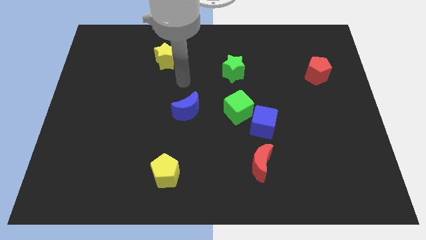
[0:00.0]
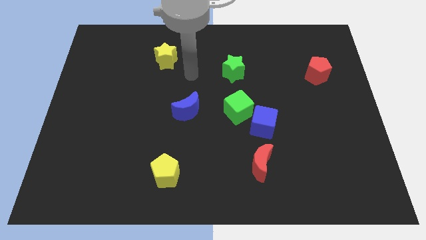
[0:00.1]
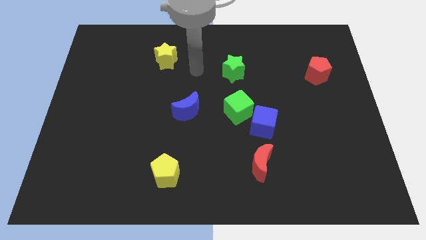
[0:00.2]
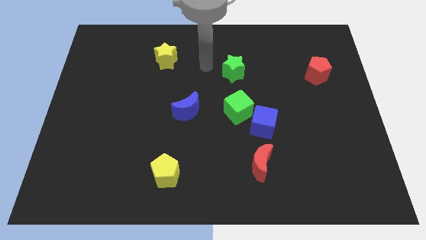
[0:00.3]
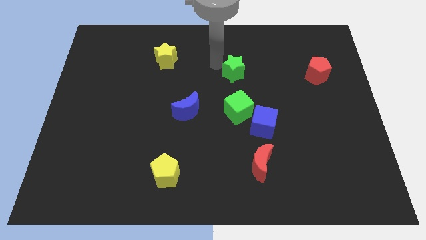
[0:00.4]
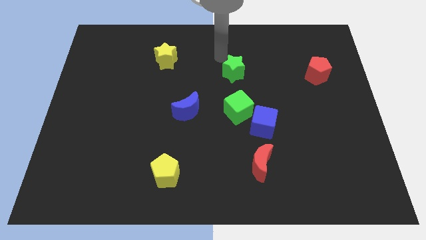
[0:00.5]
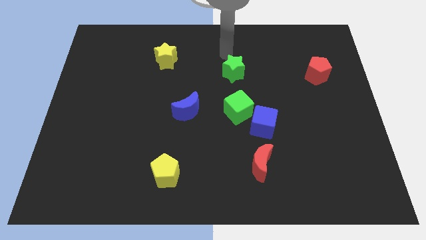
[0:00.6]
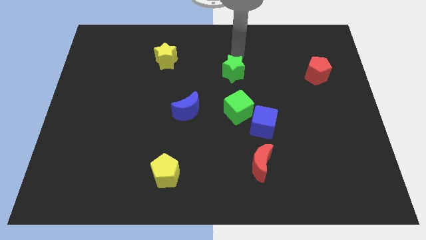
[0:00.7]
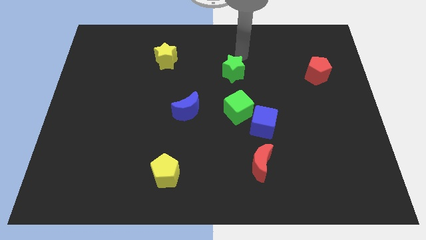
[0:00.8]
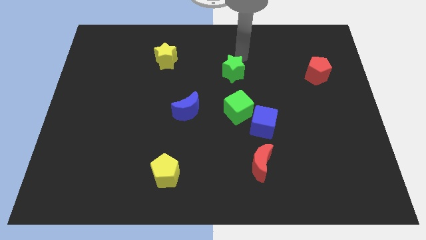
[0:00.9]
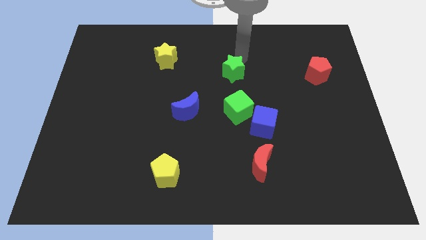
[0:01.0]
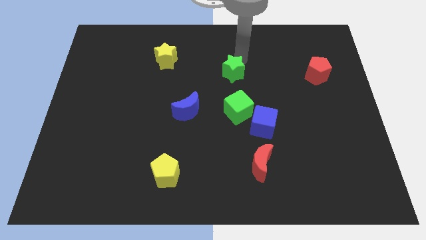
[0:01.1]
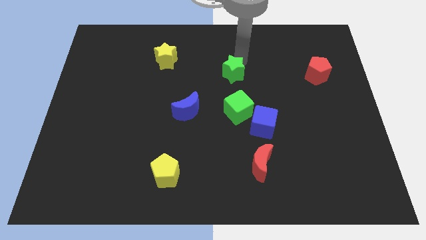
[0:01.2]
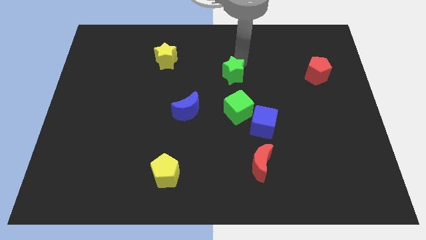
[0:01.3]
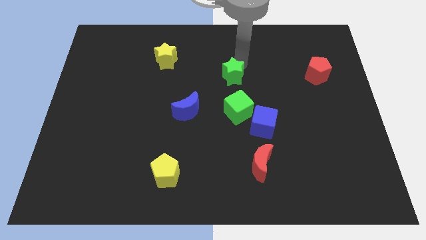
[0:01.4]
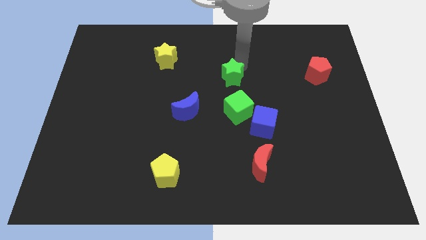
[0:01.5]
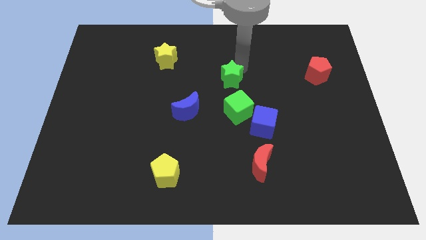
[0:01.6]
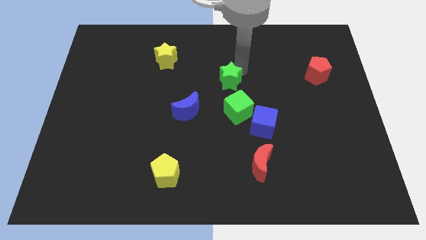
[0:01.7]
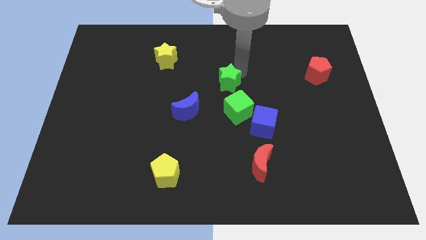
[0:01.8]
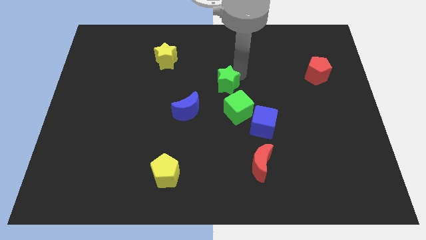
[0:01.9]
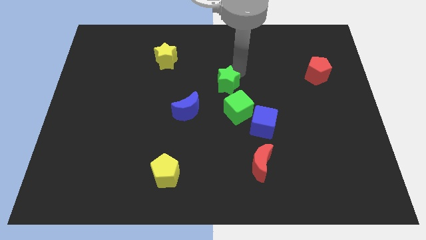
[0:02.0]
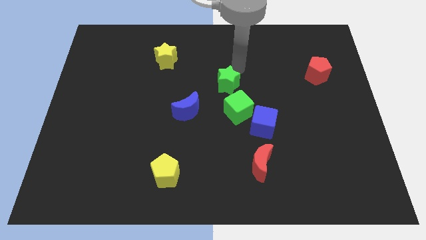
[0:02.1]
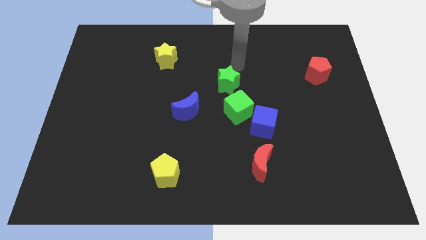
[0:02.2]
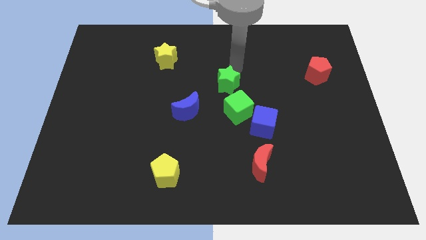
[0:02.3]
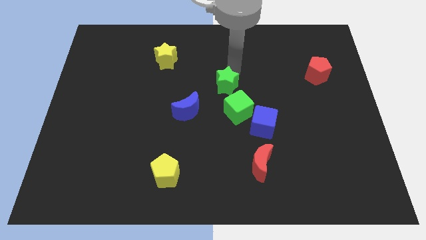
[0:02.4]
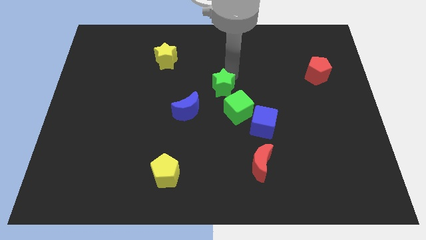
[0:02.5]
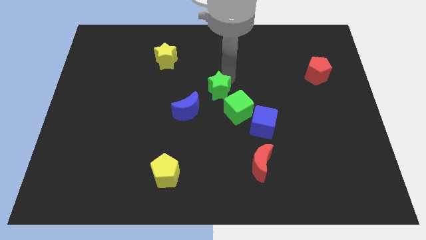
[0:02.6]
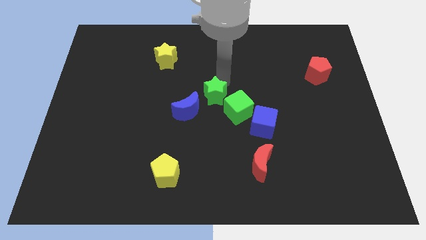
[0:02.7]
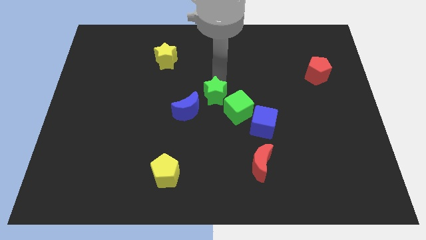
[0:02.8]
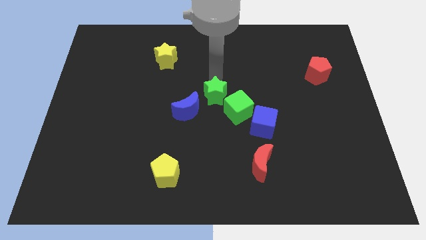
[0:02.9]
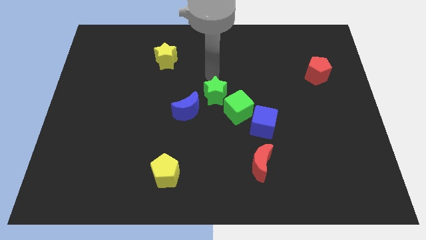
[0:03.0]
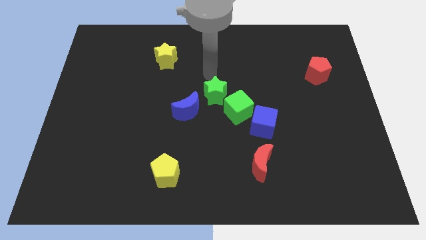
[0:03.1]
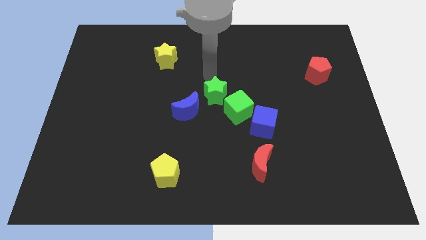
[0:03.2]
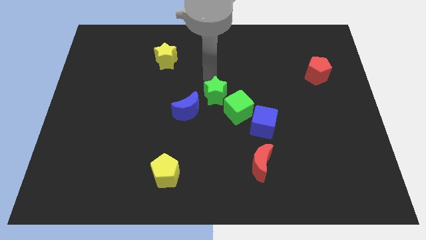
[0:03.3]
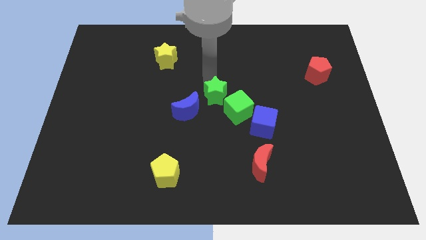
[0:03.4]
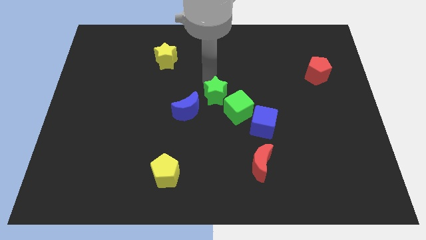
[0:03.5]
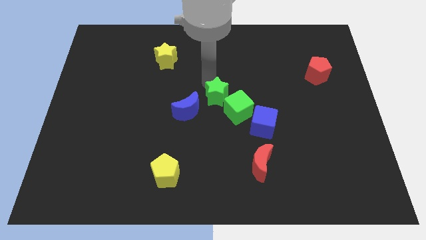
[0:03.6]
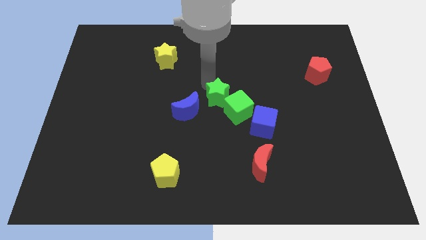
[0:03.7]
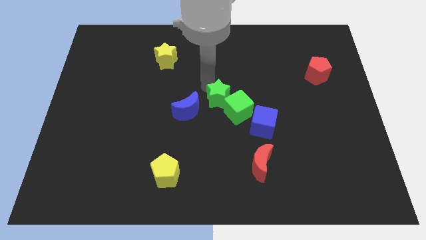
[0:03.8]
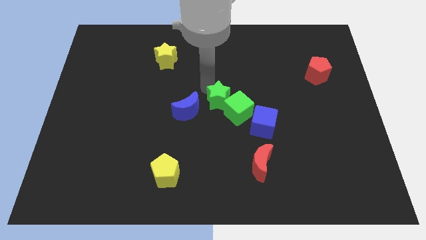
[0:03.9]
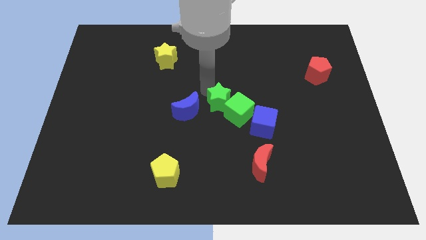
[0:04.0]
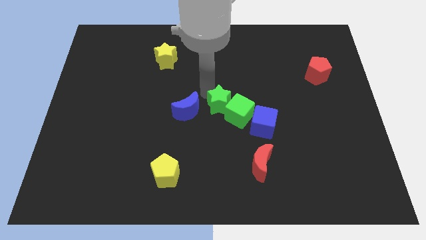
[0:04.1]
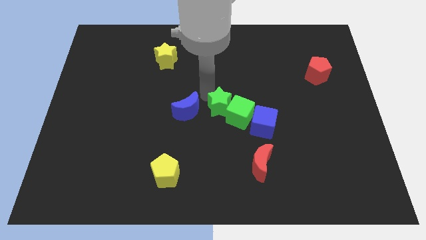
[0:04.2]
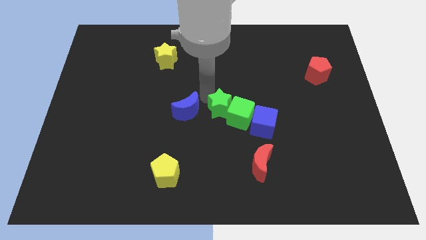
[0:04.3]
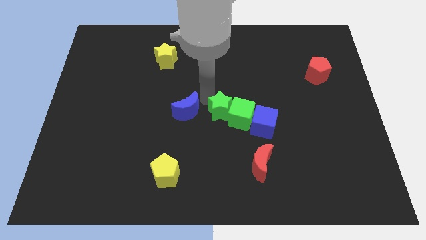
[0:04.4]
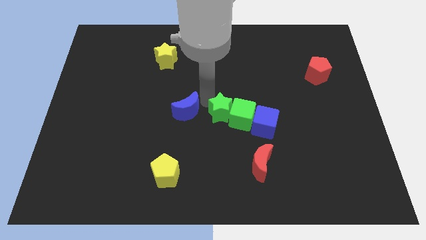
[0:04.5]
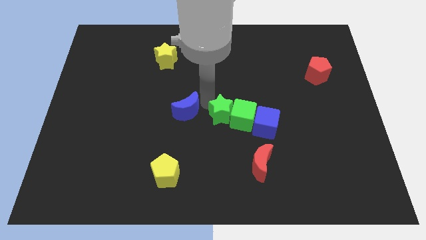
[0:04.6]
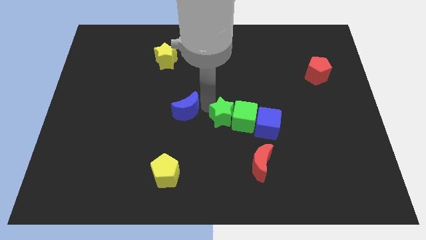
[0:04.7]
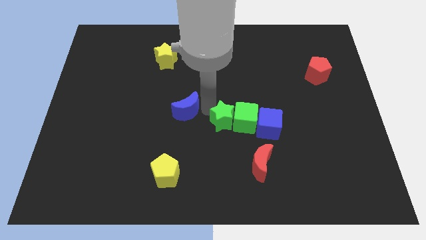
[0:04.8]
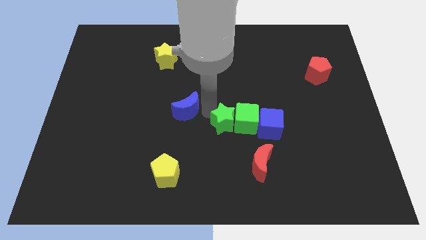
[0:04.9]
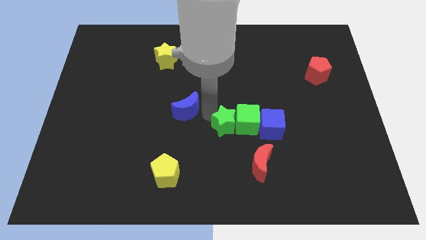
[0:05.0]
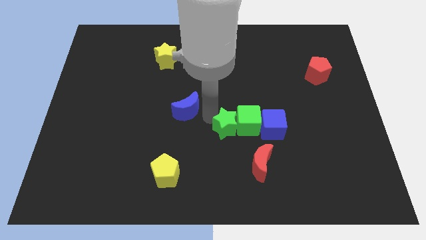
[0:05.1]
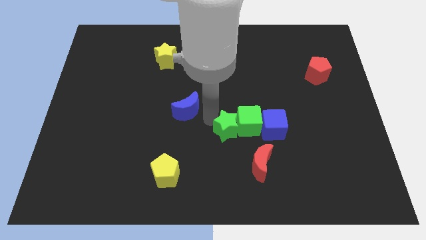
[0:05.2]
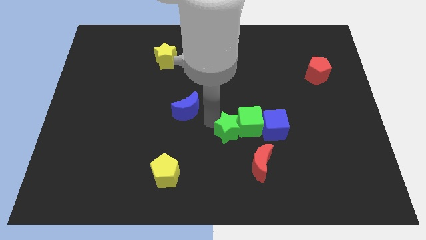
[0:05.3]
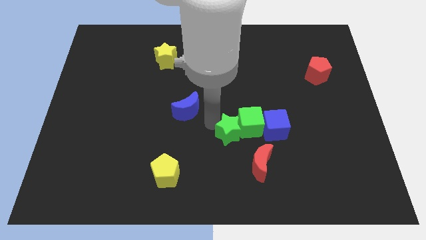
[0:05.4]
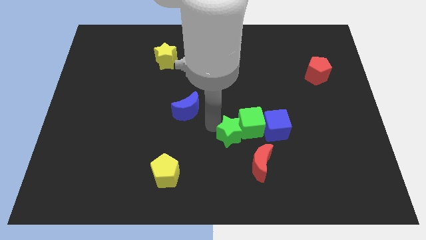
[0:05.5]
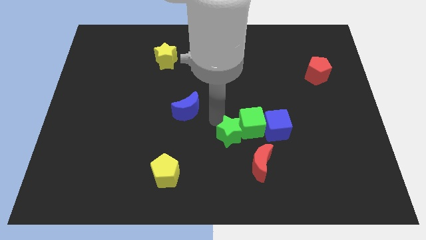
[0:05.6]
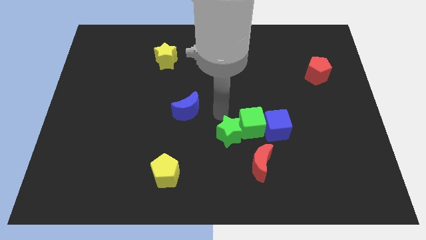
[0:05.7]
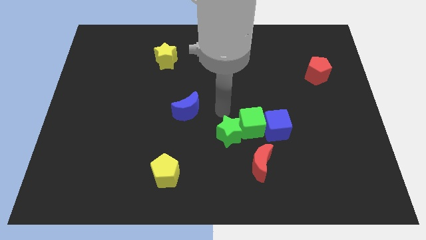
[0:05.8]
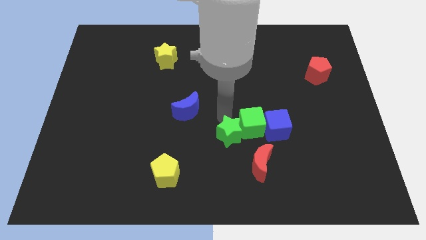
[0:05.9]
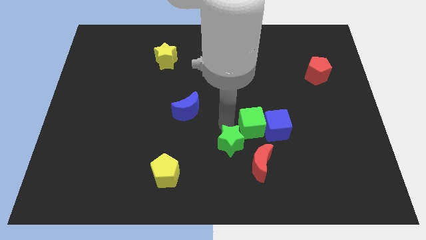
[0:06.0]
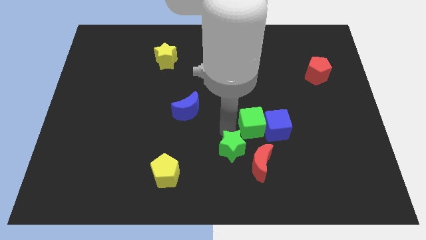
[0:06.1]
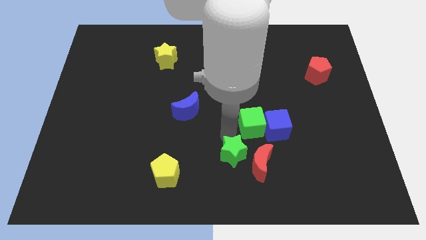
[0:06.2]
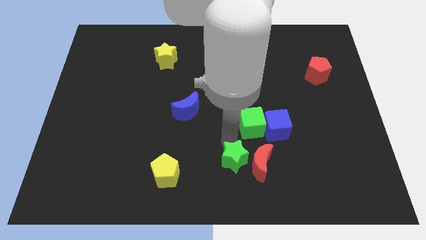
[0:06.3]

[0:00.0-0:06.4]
push the green star to the bottom side

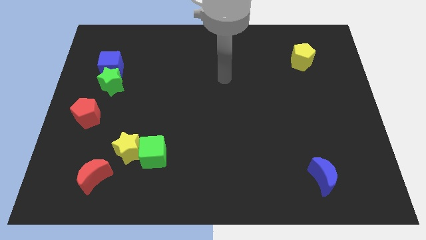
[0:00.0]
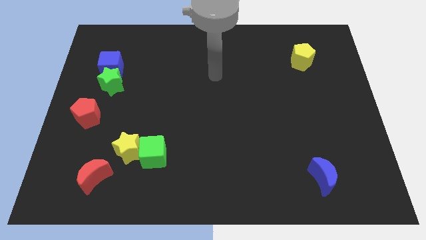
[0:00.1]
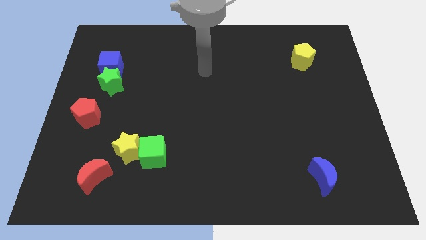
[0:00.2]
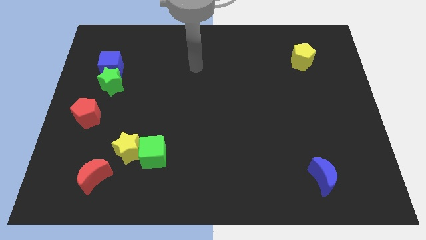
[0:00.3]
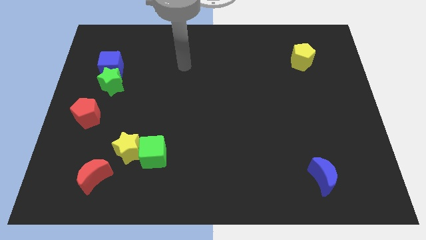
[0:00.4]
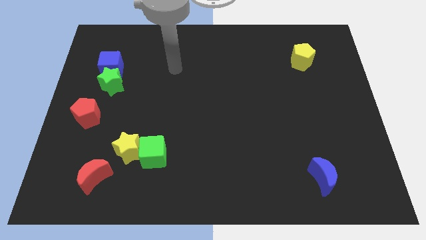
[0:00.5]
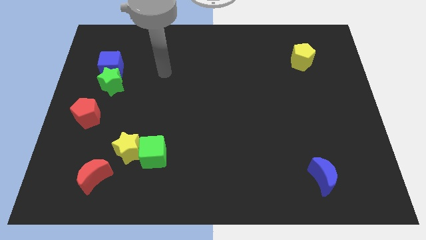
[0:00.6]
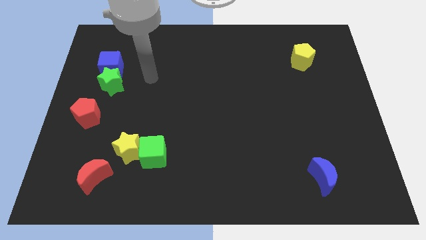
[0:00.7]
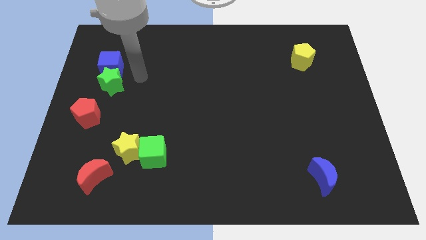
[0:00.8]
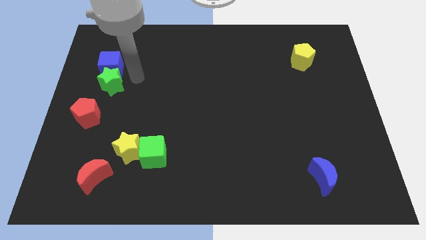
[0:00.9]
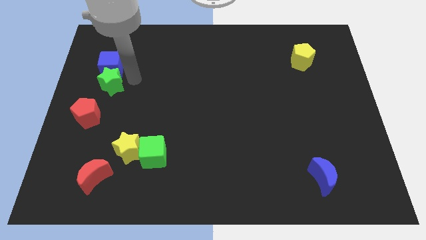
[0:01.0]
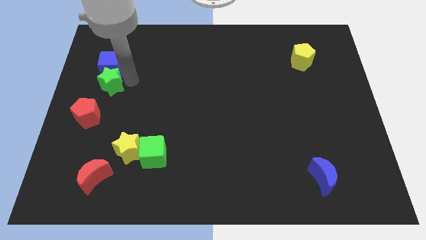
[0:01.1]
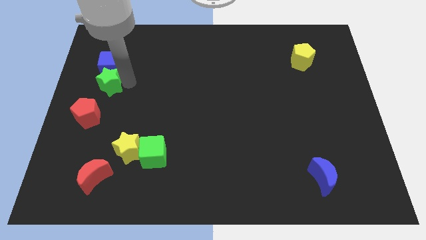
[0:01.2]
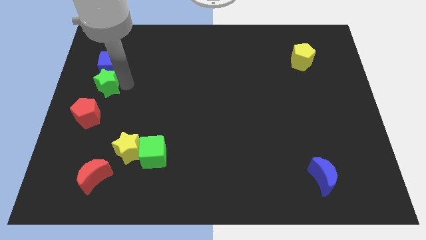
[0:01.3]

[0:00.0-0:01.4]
push the green star to the center left

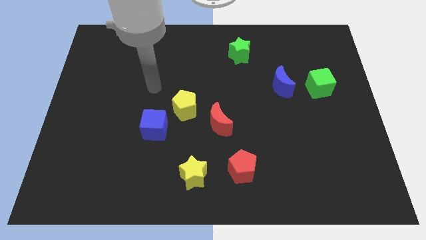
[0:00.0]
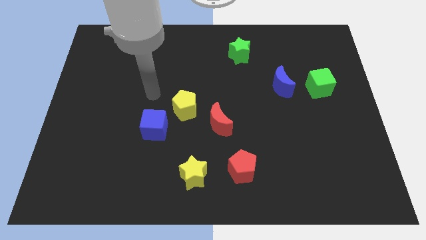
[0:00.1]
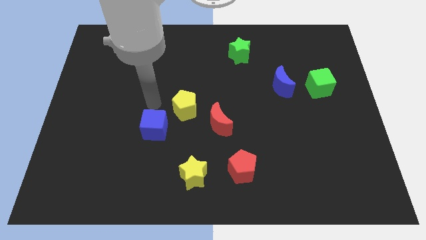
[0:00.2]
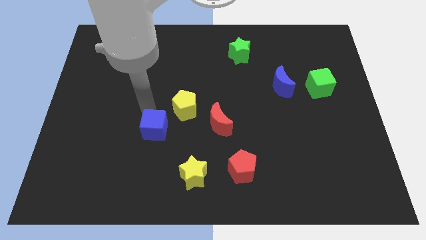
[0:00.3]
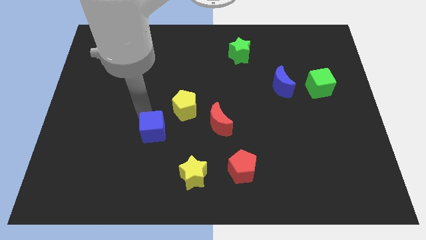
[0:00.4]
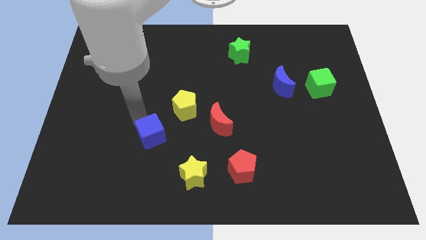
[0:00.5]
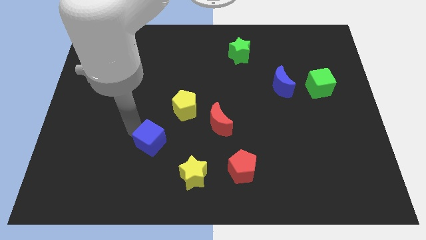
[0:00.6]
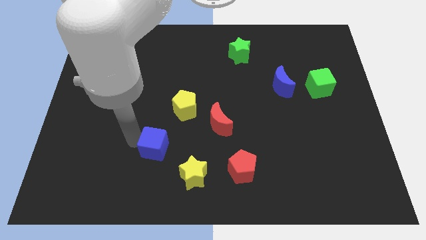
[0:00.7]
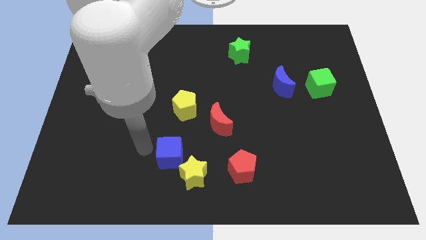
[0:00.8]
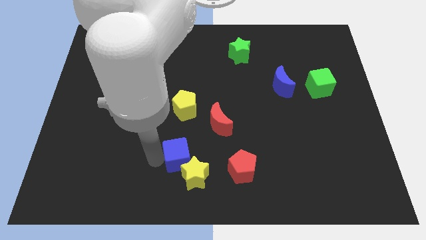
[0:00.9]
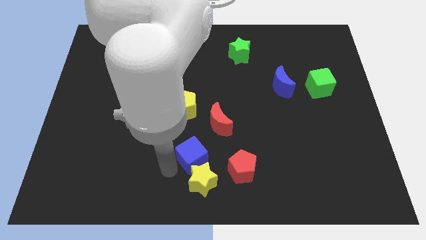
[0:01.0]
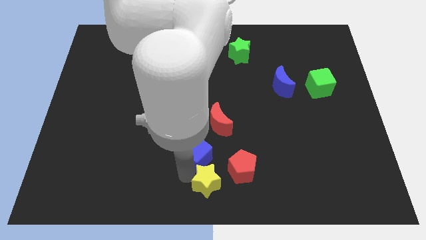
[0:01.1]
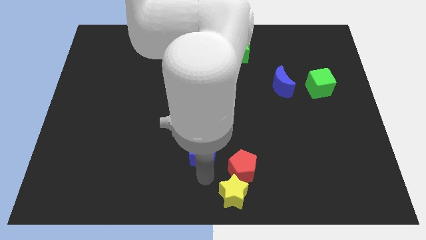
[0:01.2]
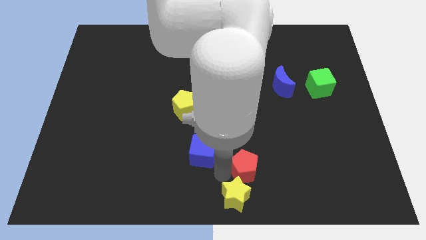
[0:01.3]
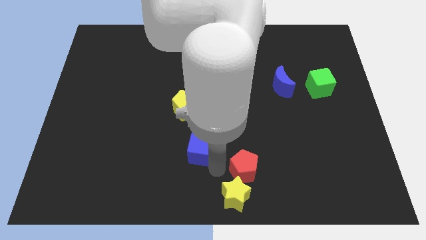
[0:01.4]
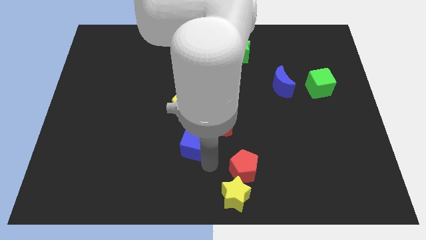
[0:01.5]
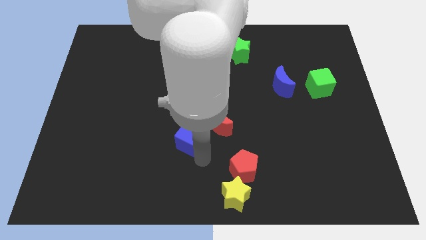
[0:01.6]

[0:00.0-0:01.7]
put the blue cube to the middle
